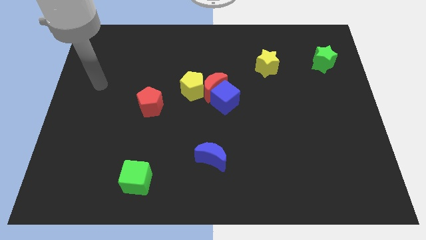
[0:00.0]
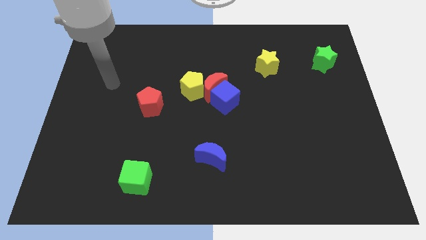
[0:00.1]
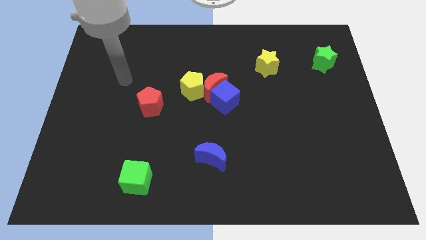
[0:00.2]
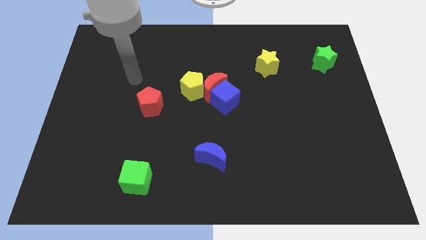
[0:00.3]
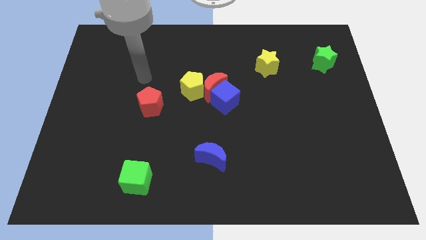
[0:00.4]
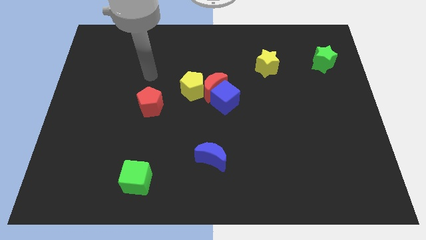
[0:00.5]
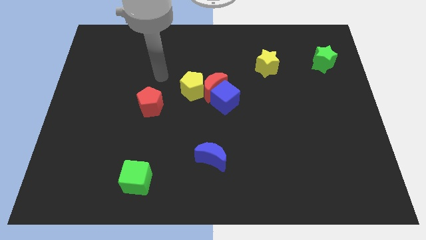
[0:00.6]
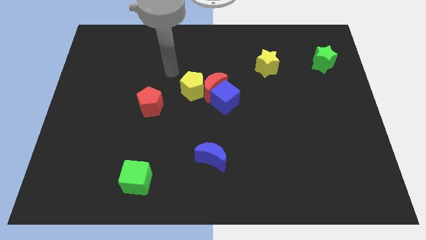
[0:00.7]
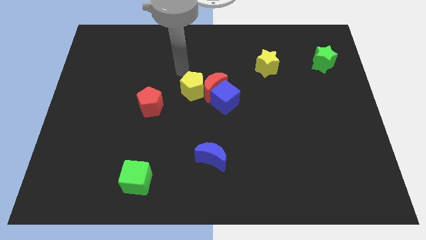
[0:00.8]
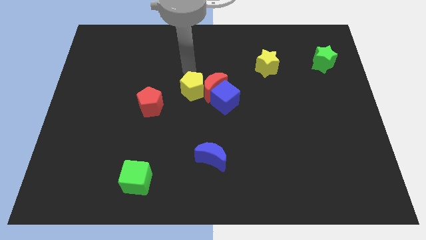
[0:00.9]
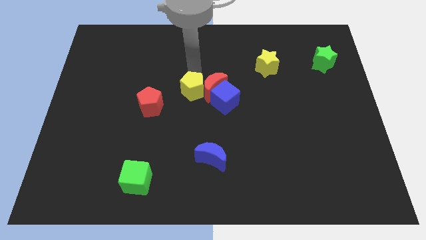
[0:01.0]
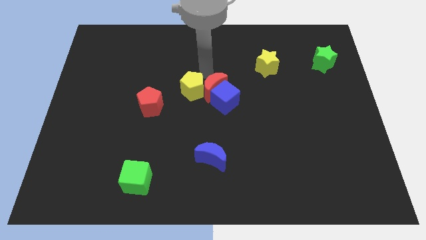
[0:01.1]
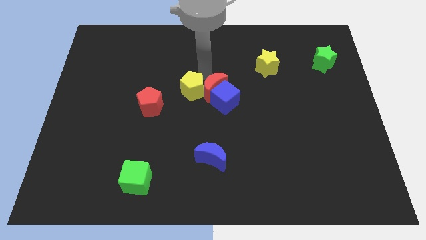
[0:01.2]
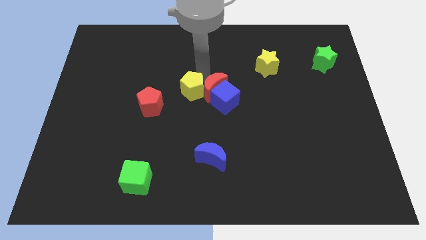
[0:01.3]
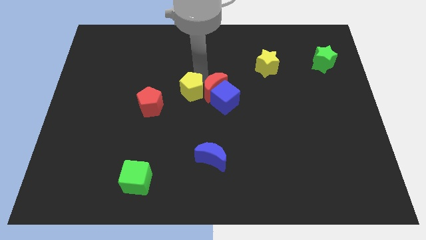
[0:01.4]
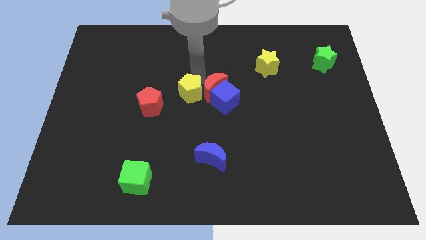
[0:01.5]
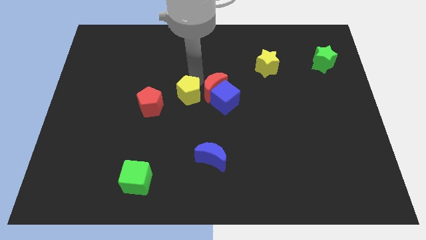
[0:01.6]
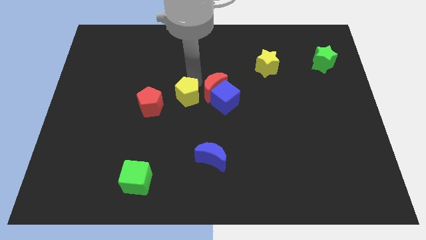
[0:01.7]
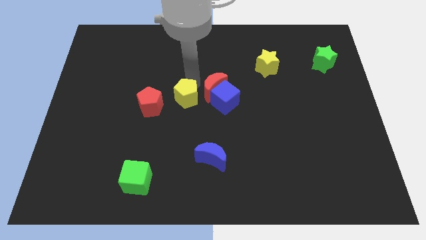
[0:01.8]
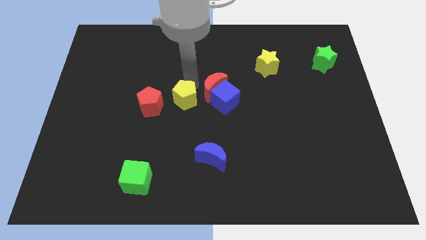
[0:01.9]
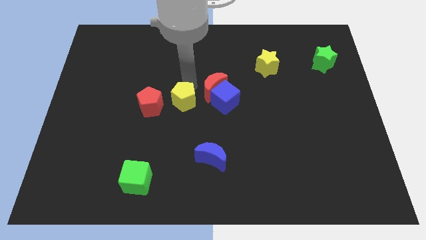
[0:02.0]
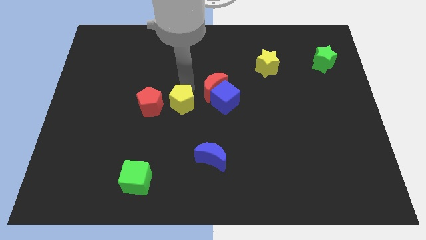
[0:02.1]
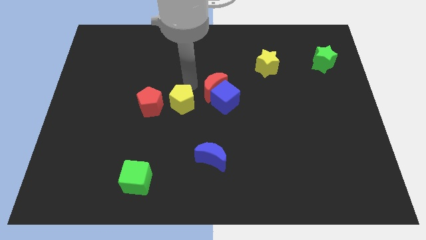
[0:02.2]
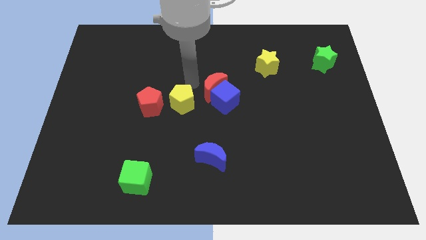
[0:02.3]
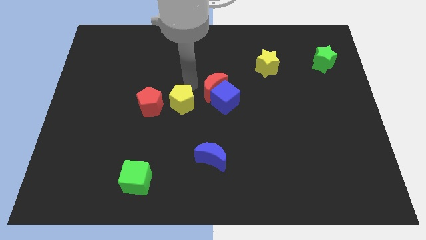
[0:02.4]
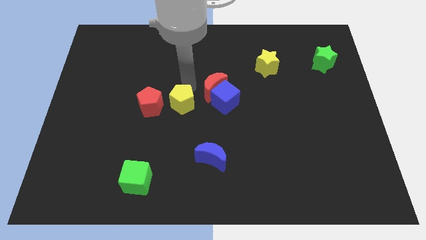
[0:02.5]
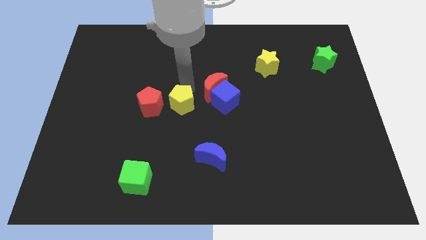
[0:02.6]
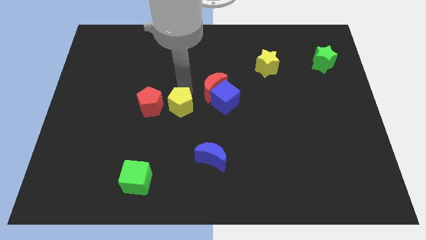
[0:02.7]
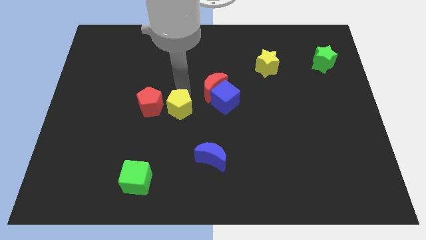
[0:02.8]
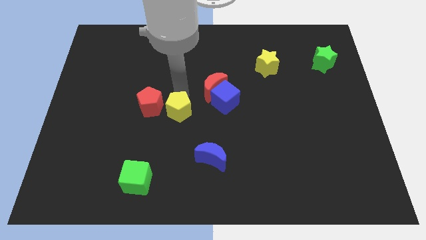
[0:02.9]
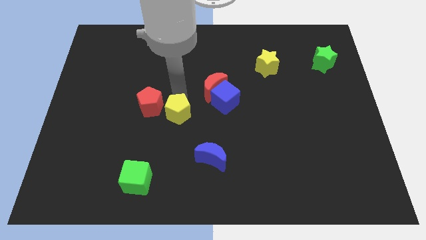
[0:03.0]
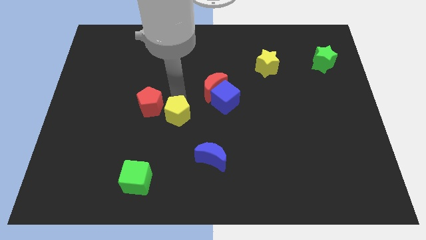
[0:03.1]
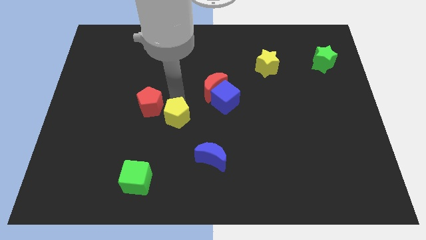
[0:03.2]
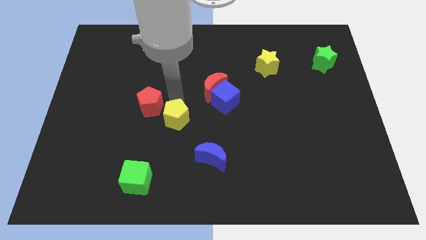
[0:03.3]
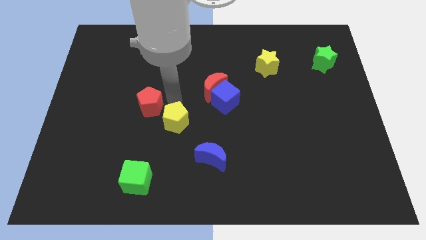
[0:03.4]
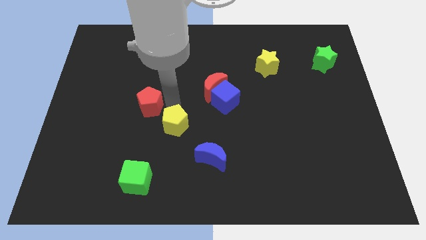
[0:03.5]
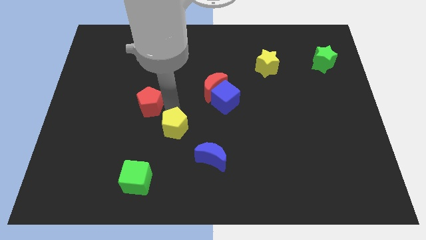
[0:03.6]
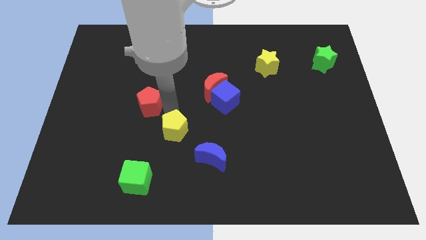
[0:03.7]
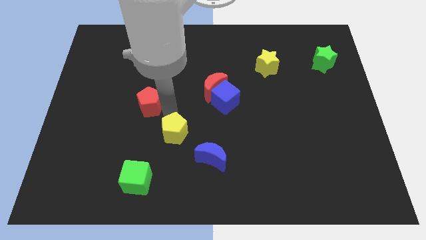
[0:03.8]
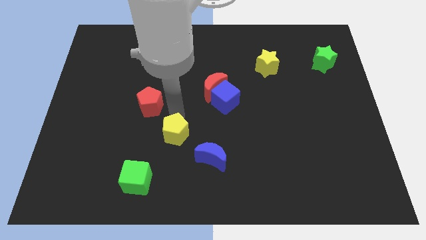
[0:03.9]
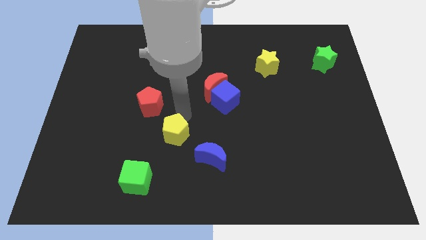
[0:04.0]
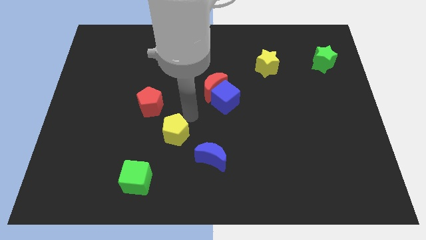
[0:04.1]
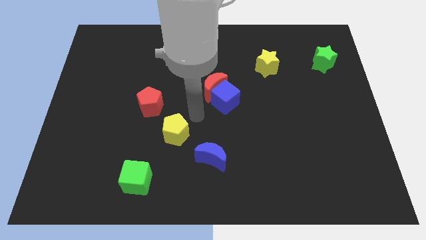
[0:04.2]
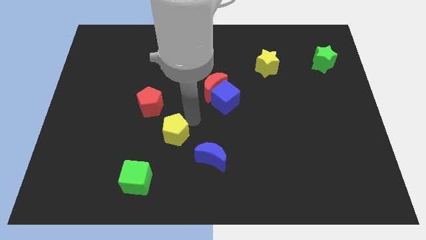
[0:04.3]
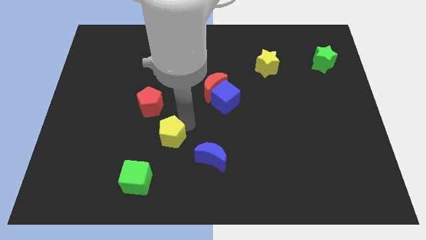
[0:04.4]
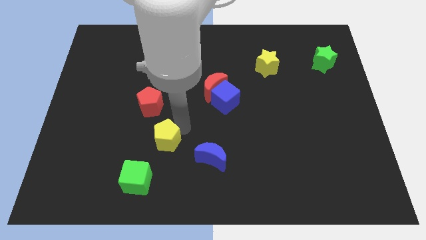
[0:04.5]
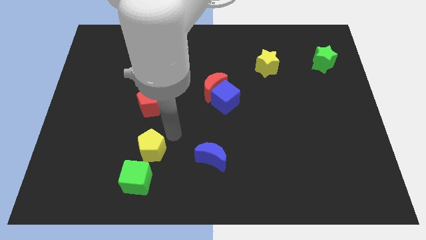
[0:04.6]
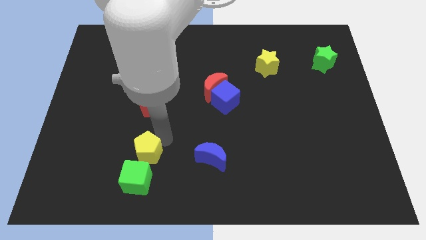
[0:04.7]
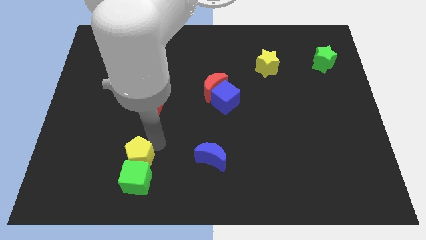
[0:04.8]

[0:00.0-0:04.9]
put the yellow pentagon towards the green cube

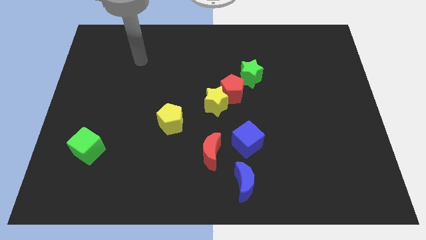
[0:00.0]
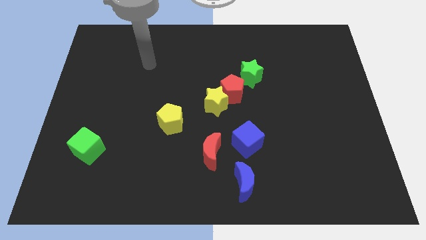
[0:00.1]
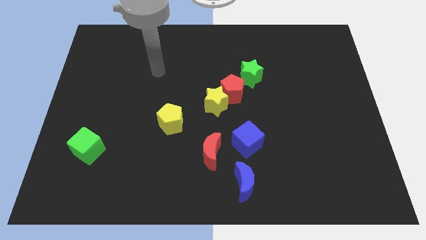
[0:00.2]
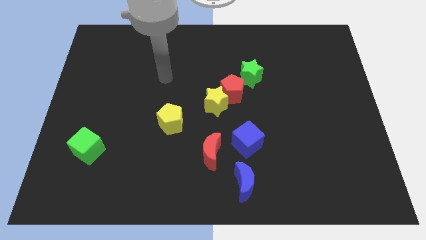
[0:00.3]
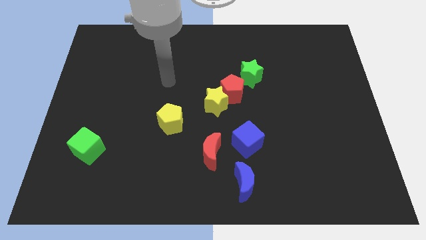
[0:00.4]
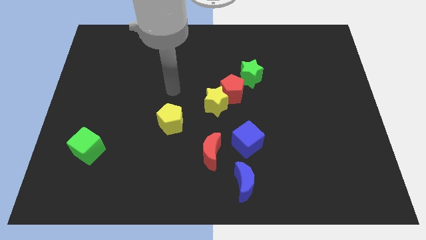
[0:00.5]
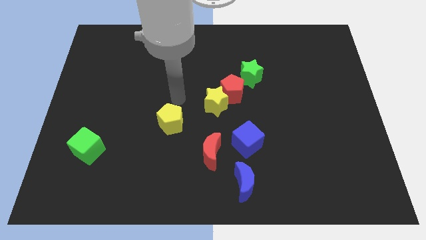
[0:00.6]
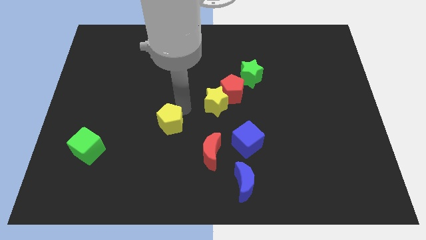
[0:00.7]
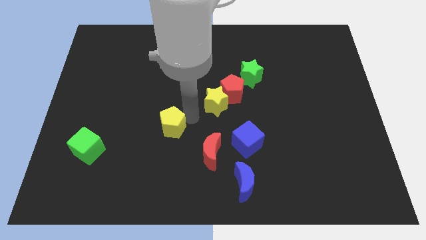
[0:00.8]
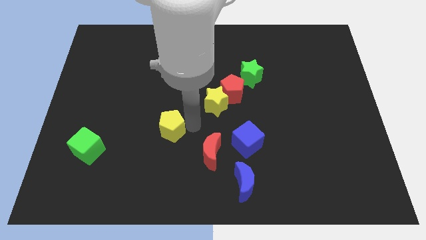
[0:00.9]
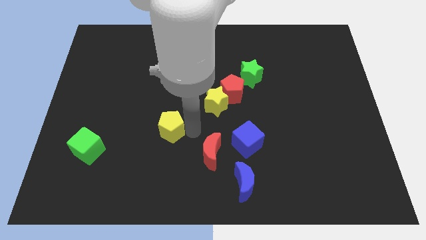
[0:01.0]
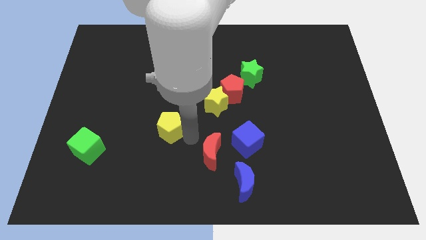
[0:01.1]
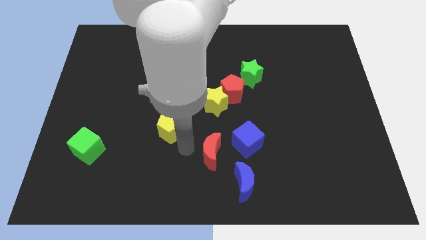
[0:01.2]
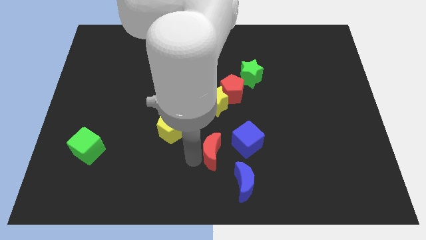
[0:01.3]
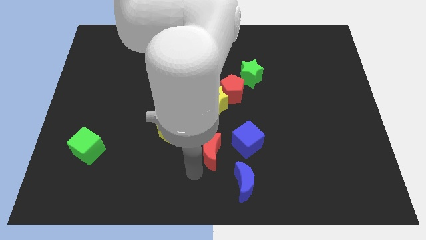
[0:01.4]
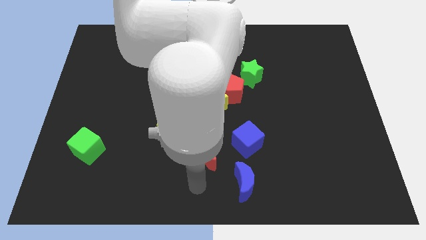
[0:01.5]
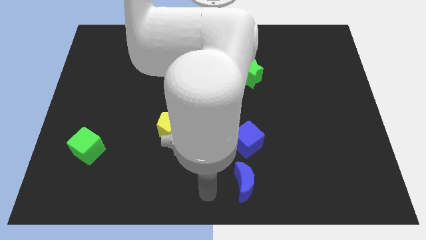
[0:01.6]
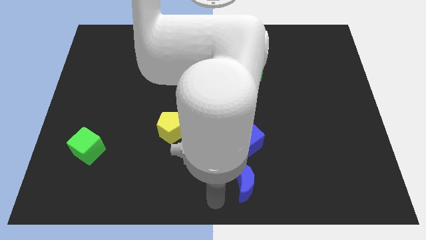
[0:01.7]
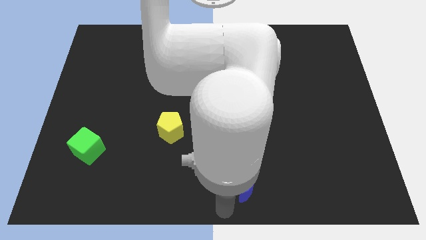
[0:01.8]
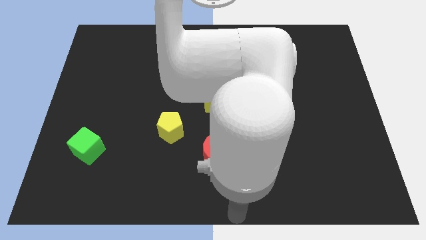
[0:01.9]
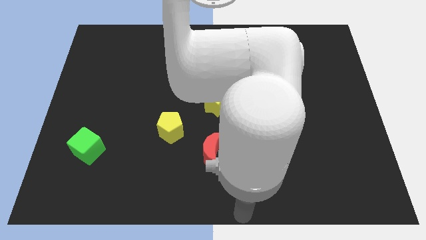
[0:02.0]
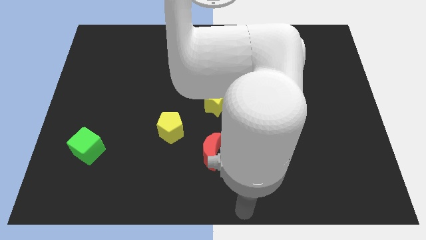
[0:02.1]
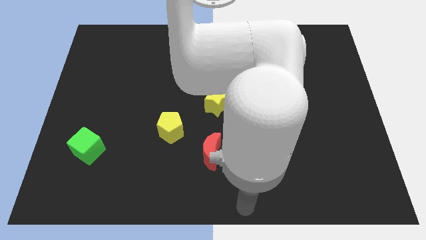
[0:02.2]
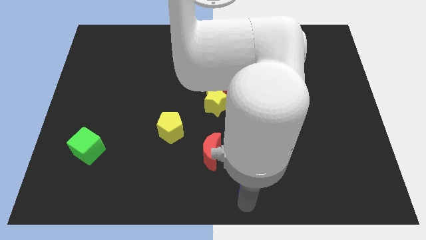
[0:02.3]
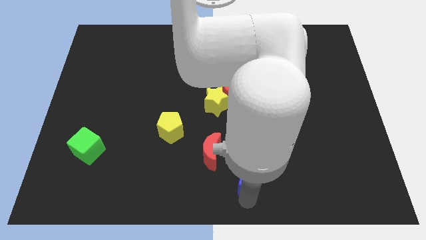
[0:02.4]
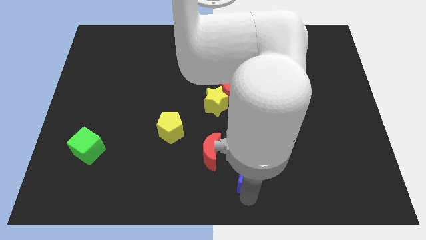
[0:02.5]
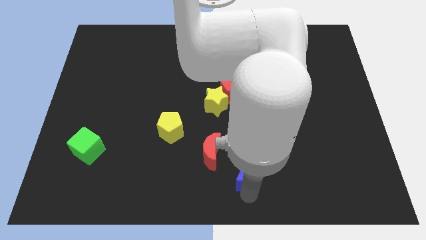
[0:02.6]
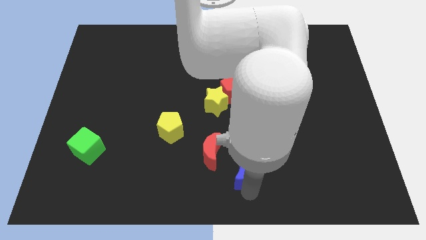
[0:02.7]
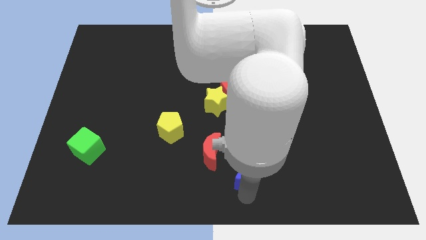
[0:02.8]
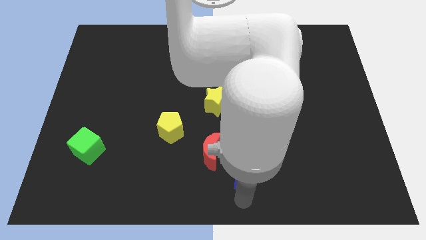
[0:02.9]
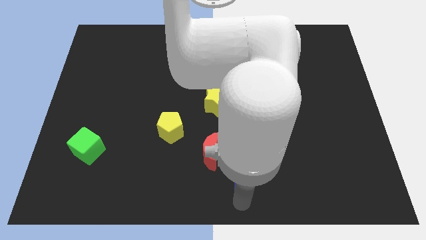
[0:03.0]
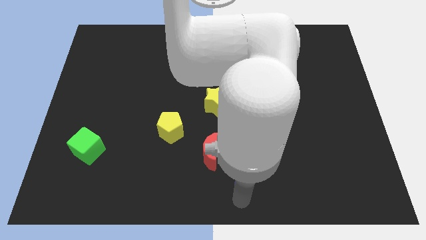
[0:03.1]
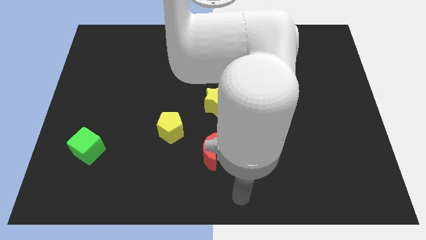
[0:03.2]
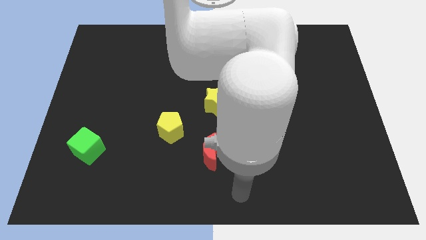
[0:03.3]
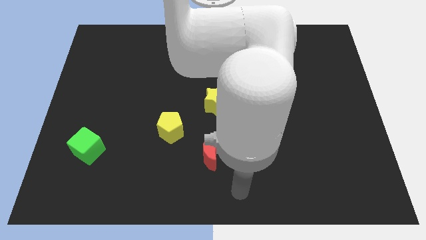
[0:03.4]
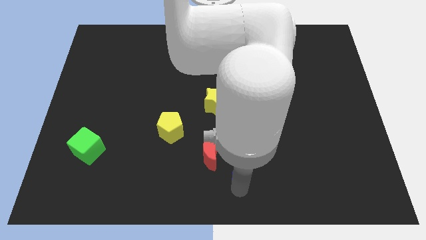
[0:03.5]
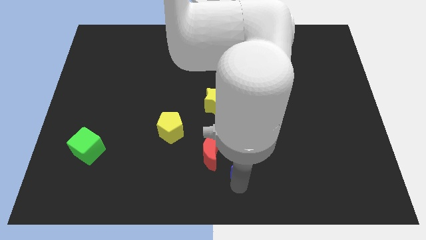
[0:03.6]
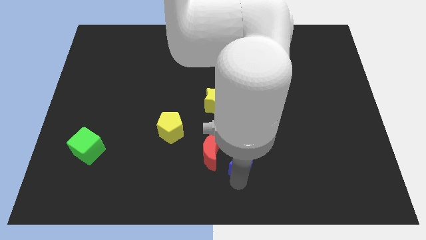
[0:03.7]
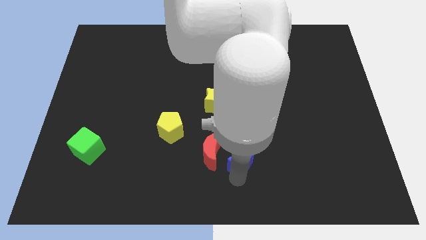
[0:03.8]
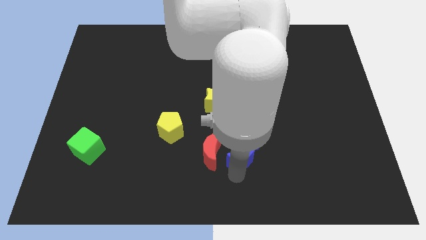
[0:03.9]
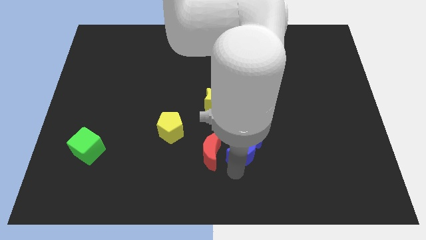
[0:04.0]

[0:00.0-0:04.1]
slide the blue moon next to the blue cube
